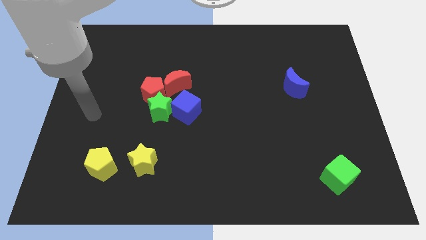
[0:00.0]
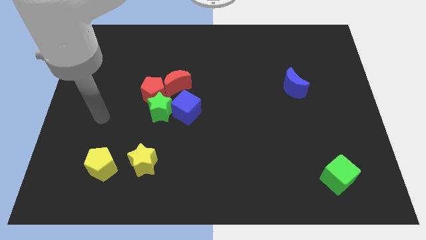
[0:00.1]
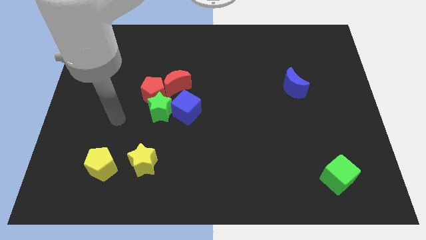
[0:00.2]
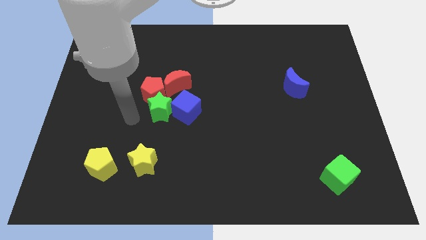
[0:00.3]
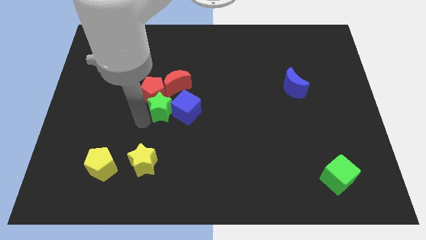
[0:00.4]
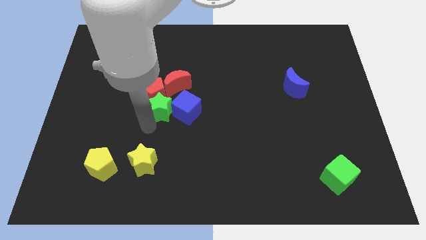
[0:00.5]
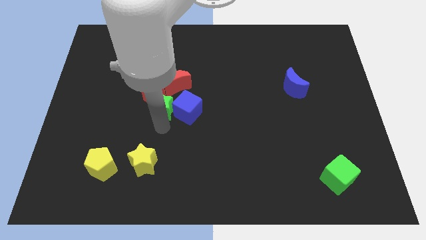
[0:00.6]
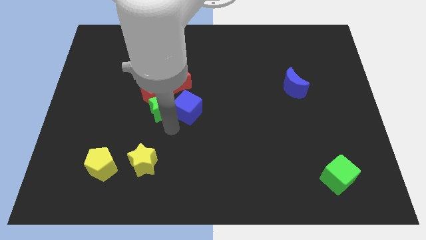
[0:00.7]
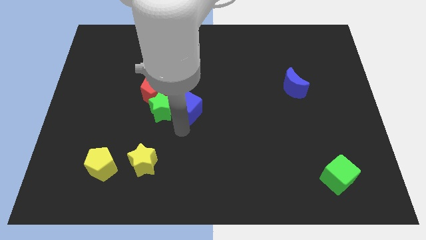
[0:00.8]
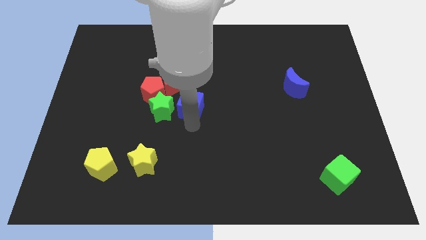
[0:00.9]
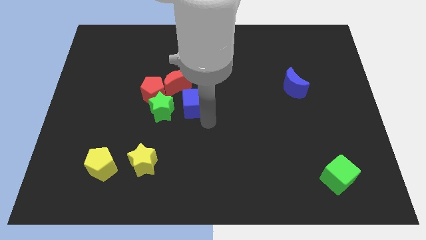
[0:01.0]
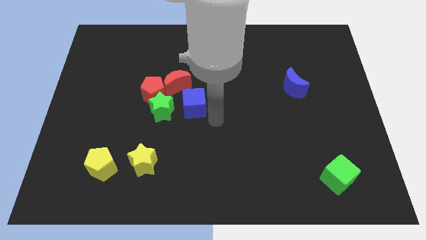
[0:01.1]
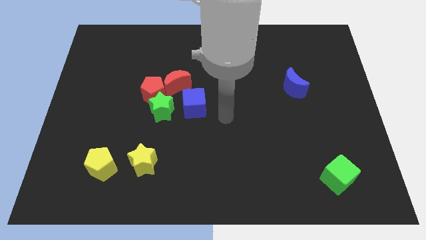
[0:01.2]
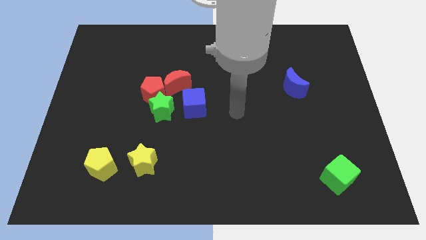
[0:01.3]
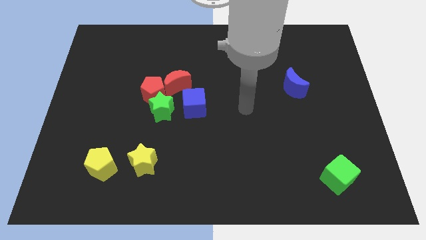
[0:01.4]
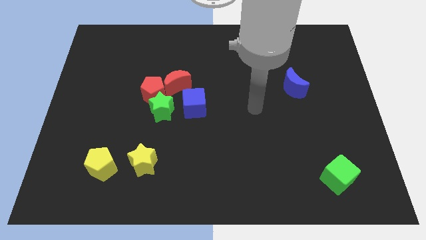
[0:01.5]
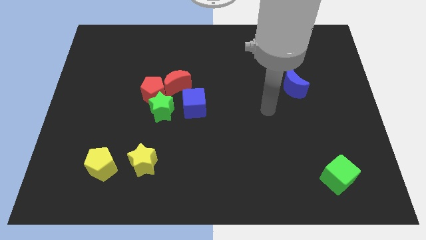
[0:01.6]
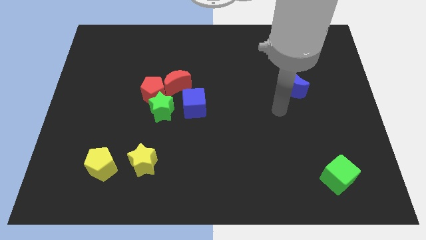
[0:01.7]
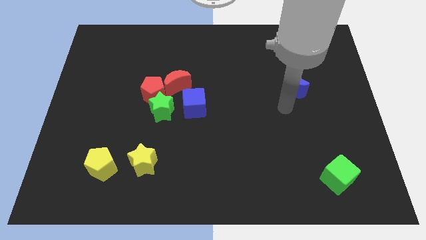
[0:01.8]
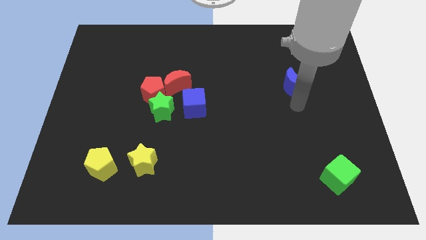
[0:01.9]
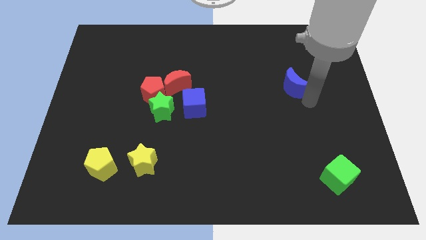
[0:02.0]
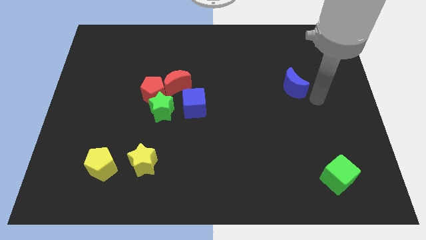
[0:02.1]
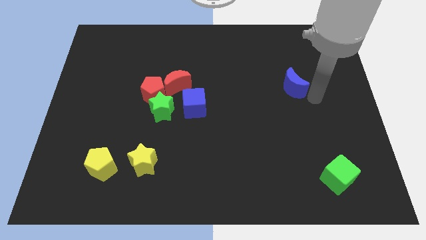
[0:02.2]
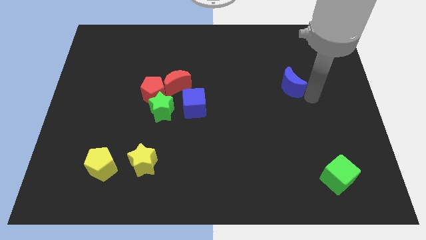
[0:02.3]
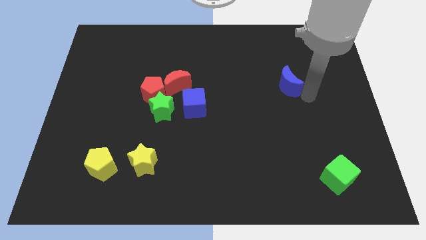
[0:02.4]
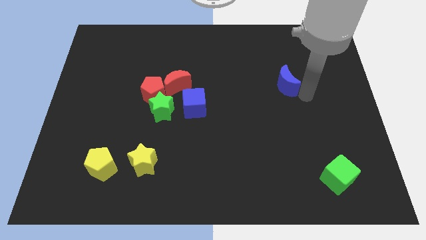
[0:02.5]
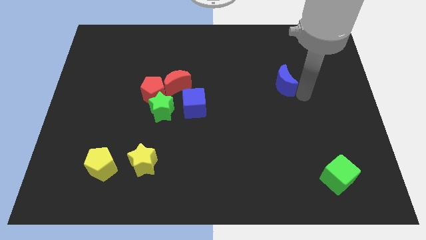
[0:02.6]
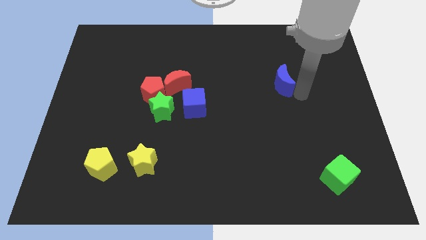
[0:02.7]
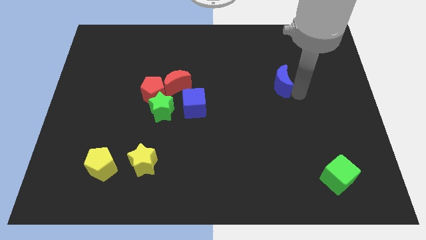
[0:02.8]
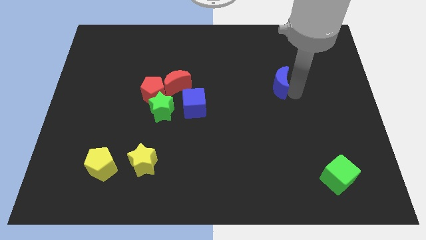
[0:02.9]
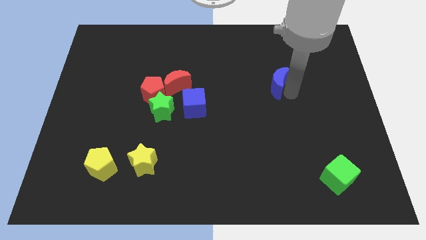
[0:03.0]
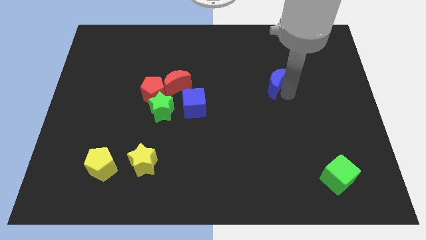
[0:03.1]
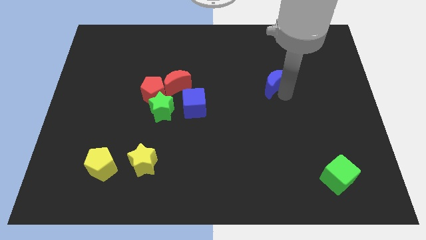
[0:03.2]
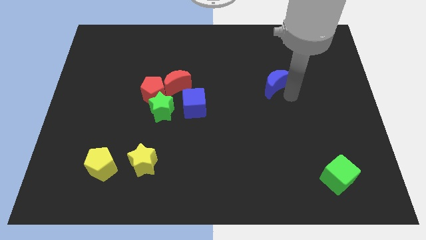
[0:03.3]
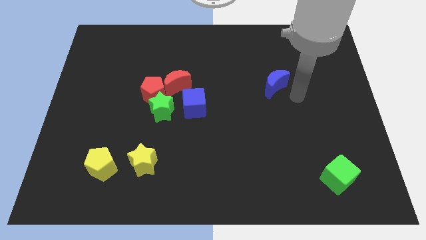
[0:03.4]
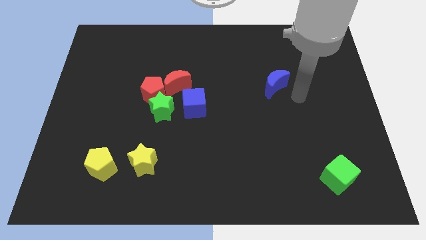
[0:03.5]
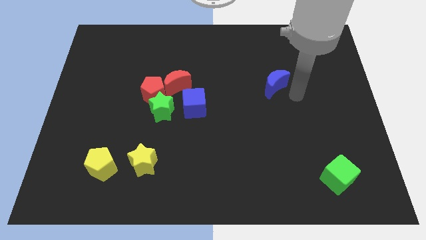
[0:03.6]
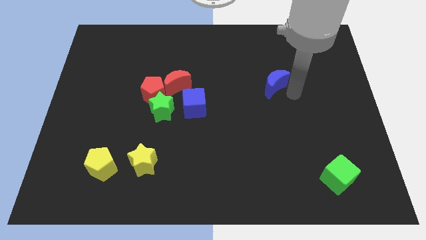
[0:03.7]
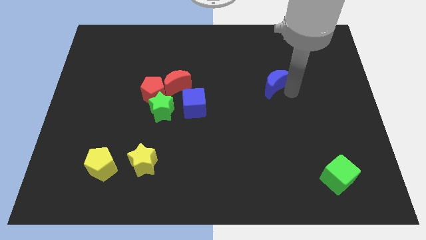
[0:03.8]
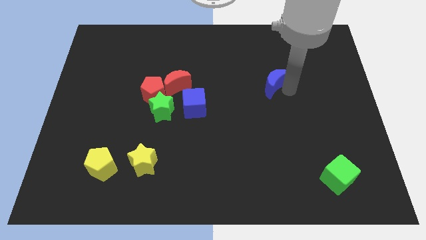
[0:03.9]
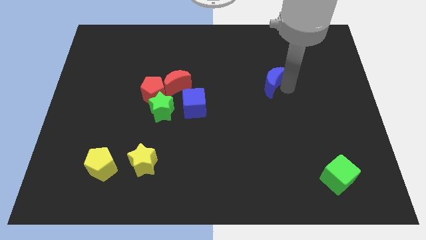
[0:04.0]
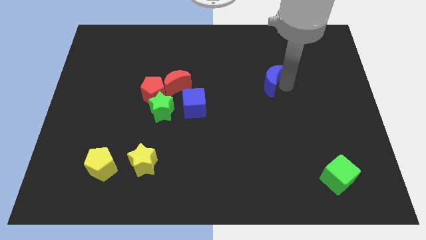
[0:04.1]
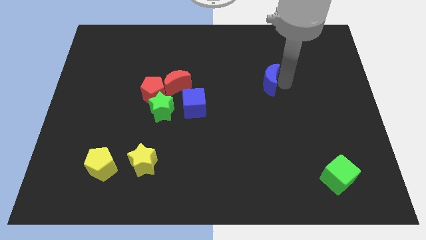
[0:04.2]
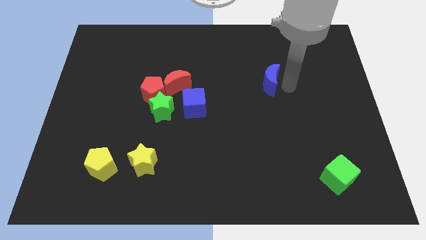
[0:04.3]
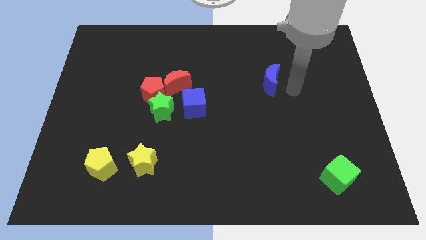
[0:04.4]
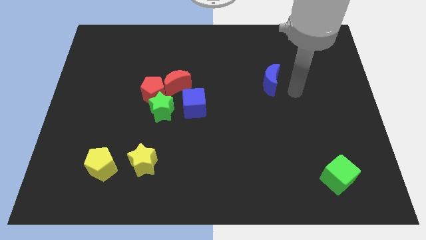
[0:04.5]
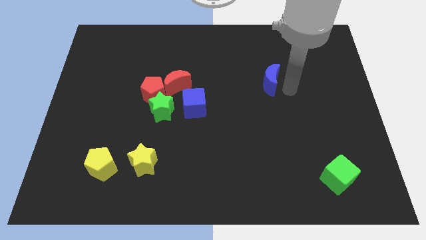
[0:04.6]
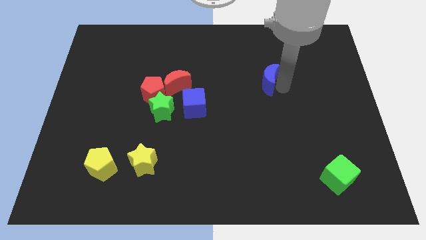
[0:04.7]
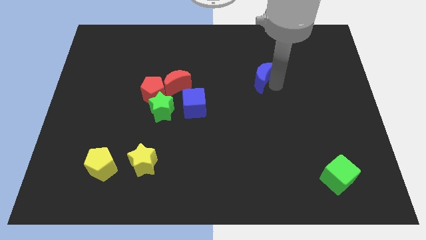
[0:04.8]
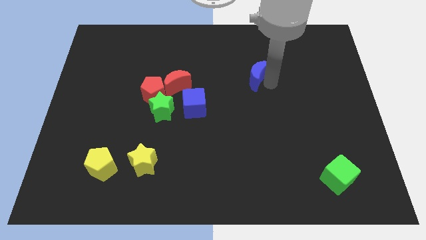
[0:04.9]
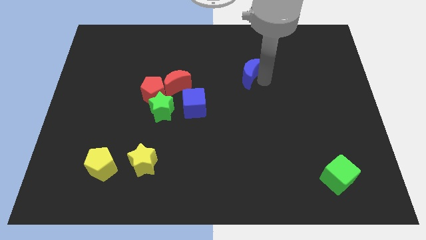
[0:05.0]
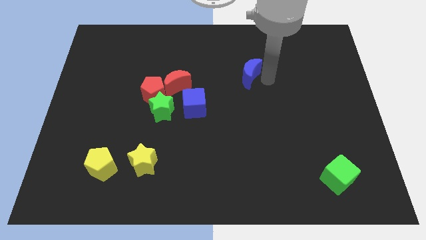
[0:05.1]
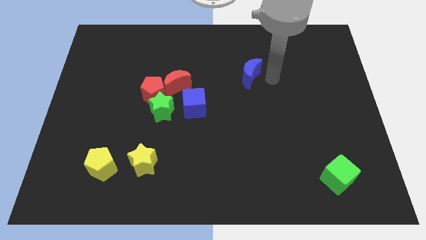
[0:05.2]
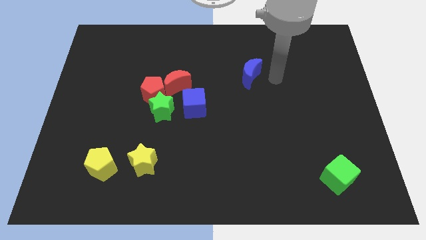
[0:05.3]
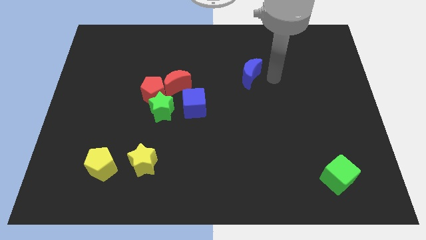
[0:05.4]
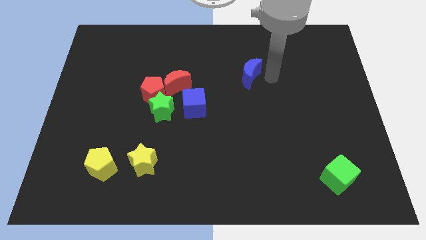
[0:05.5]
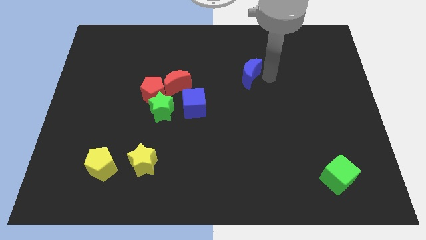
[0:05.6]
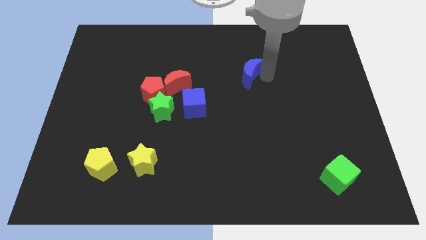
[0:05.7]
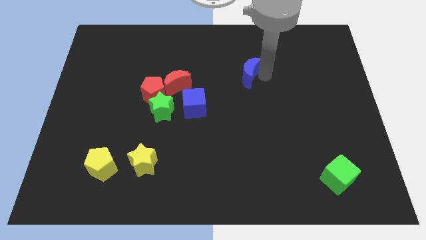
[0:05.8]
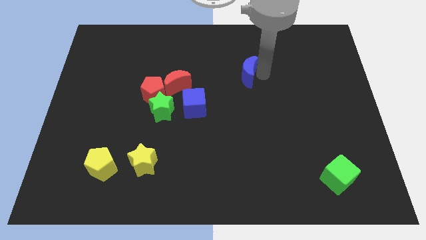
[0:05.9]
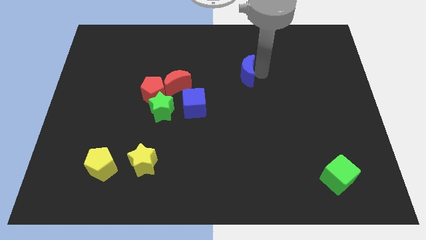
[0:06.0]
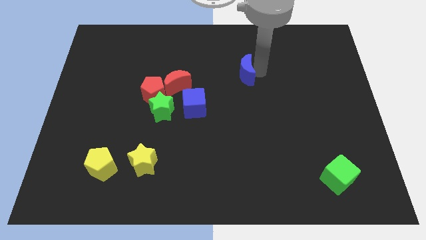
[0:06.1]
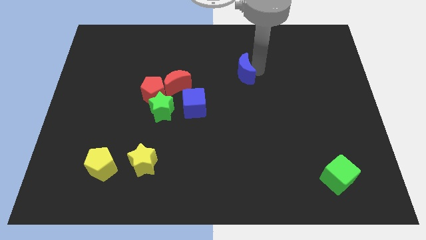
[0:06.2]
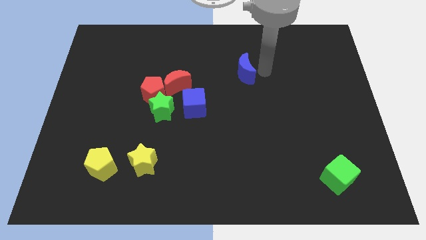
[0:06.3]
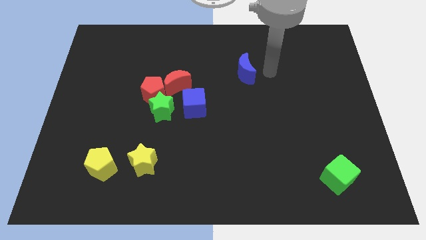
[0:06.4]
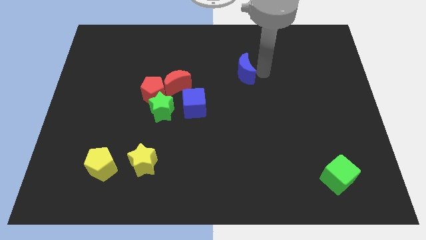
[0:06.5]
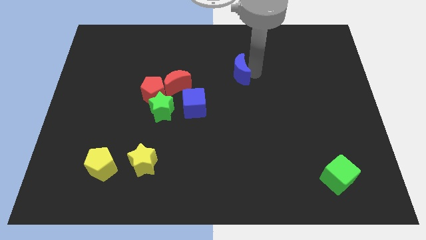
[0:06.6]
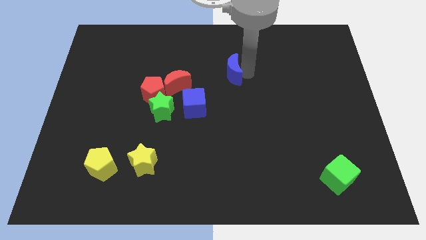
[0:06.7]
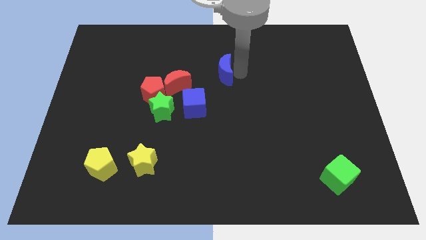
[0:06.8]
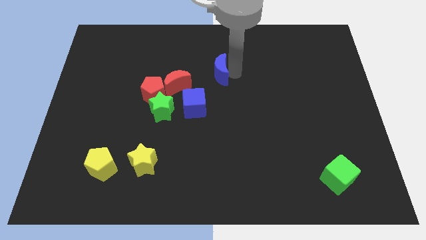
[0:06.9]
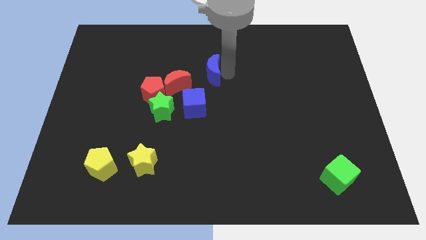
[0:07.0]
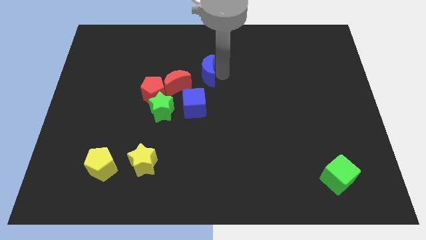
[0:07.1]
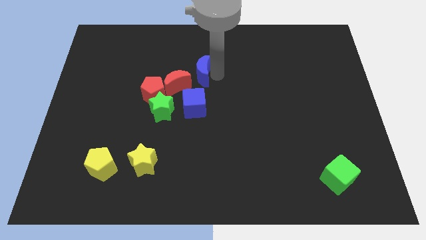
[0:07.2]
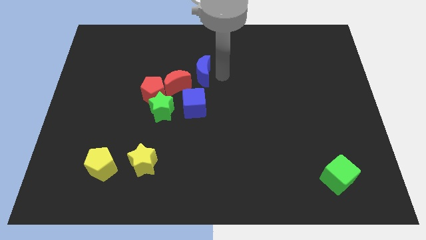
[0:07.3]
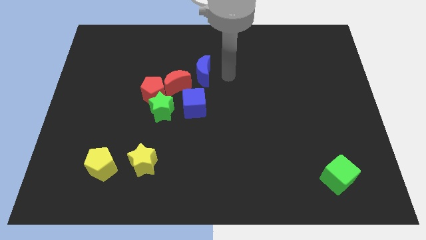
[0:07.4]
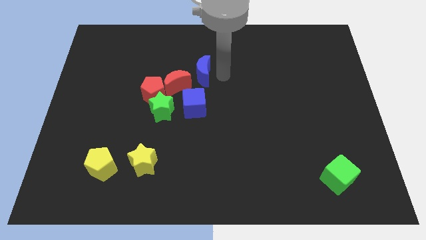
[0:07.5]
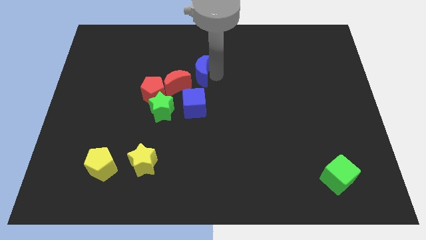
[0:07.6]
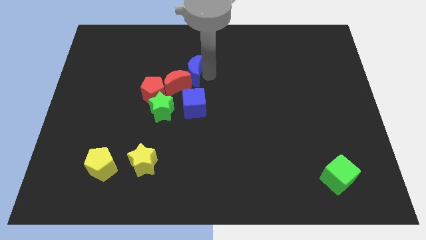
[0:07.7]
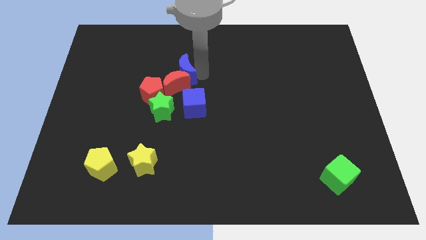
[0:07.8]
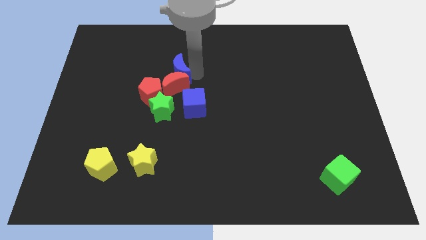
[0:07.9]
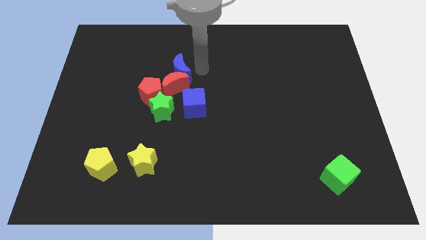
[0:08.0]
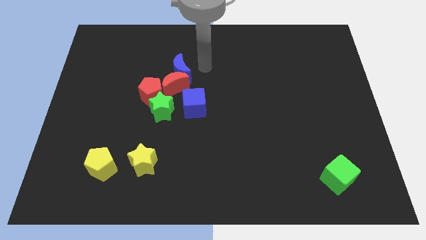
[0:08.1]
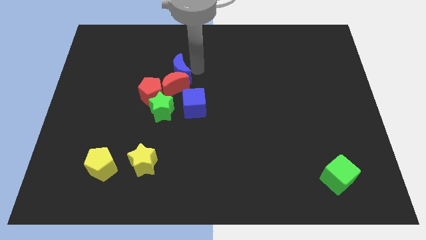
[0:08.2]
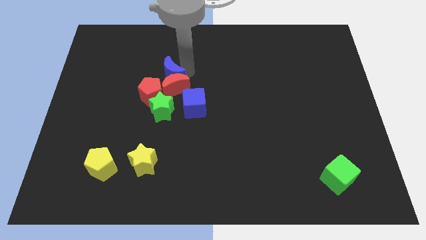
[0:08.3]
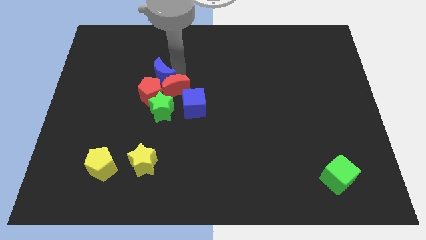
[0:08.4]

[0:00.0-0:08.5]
move the blue moon to the left side of the red moon
